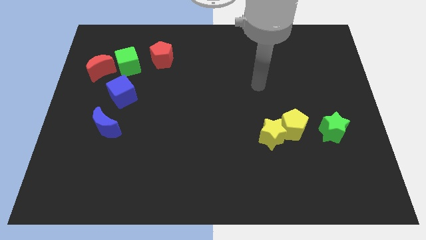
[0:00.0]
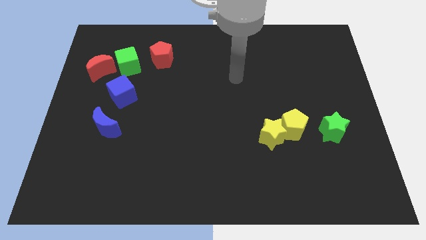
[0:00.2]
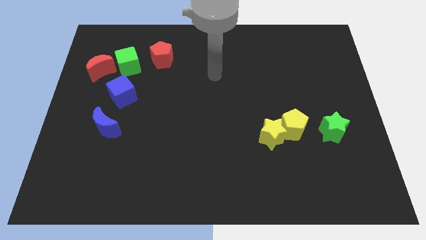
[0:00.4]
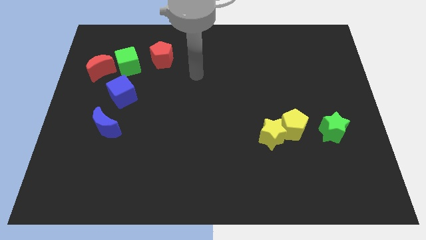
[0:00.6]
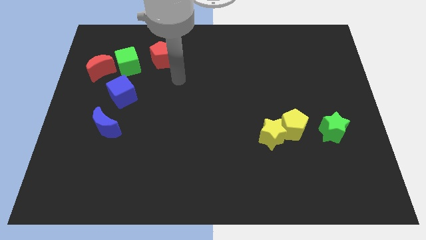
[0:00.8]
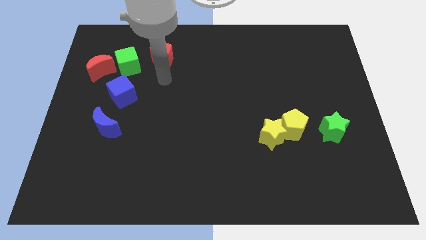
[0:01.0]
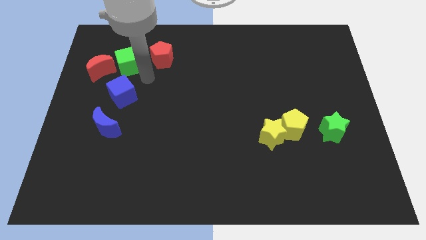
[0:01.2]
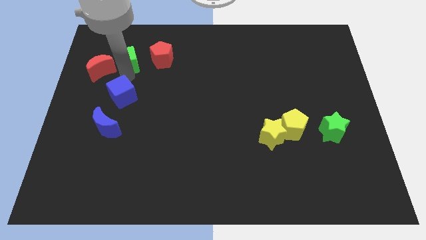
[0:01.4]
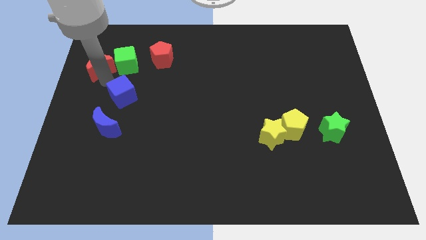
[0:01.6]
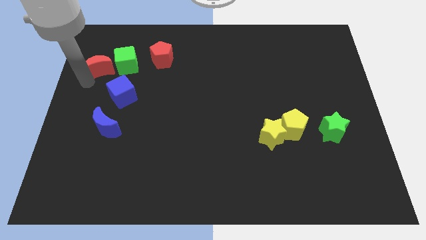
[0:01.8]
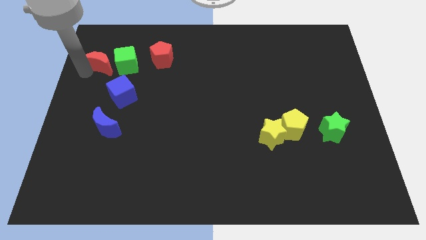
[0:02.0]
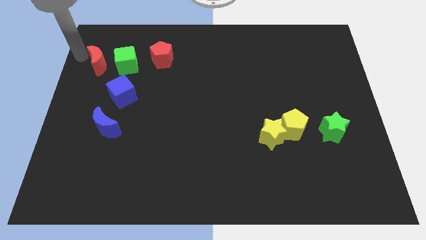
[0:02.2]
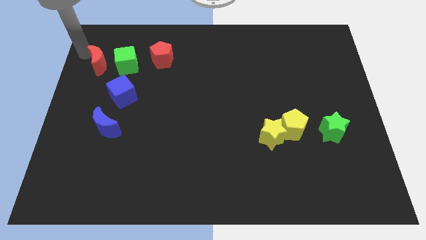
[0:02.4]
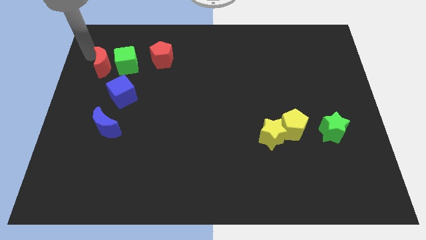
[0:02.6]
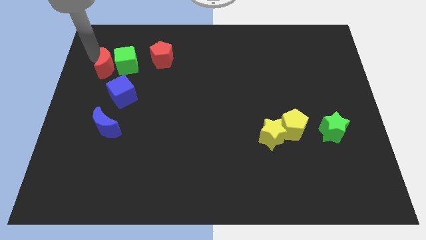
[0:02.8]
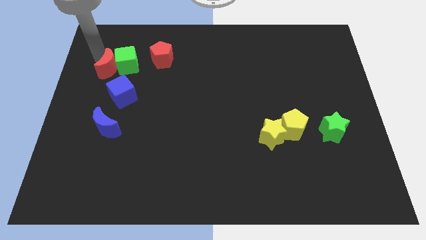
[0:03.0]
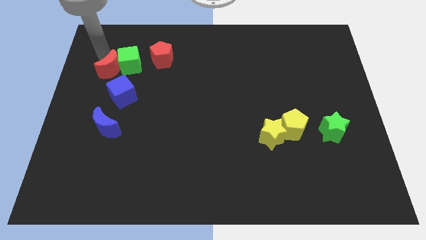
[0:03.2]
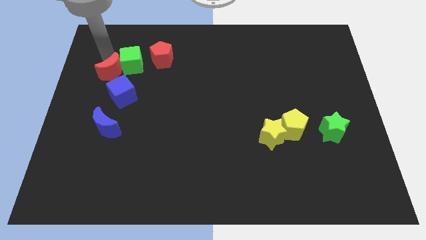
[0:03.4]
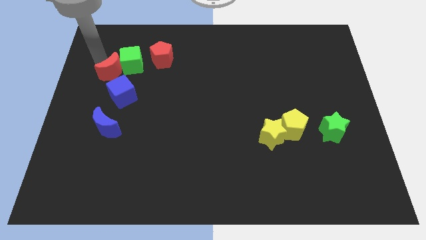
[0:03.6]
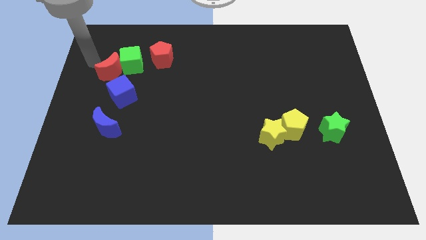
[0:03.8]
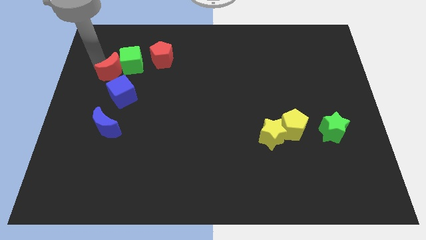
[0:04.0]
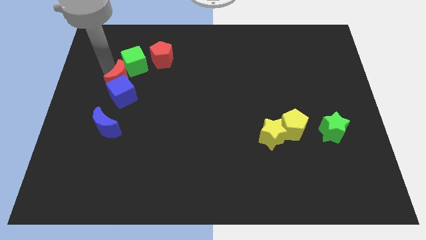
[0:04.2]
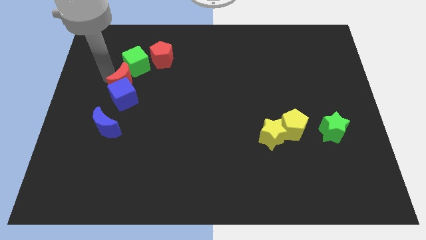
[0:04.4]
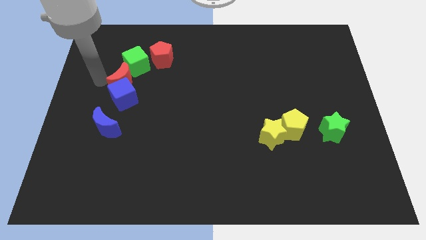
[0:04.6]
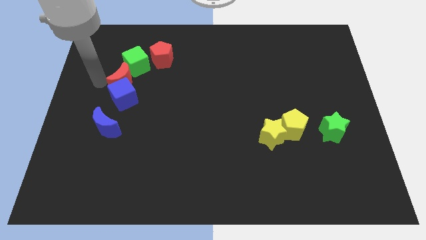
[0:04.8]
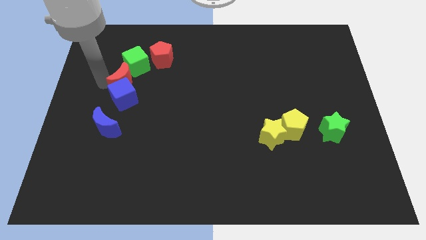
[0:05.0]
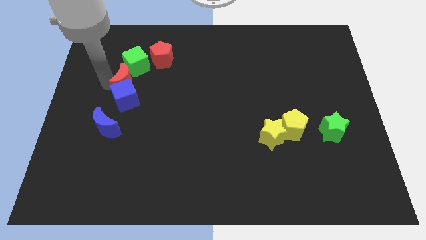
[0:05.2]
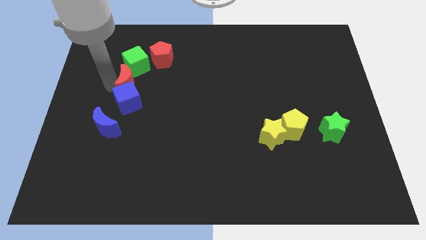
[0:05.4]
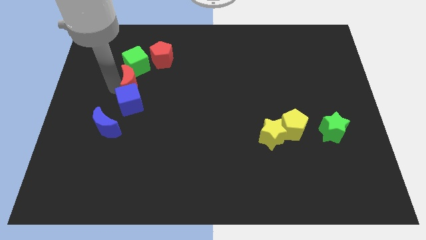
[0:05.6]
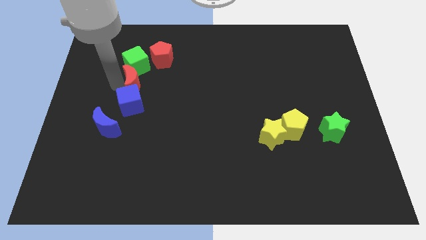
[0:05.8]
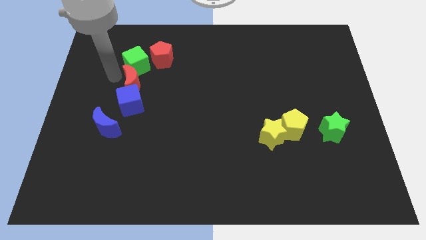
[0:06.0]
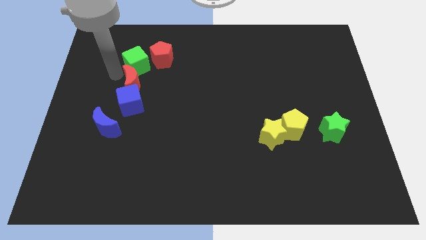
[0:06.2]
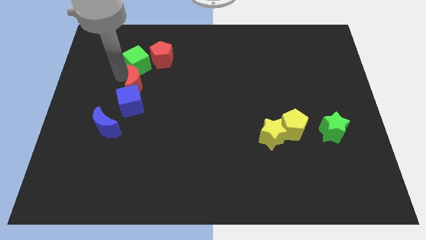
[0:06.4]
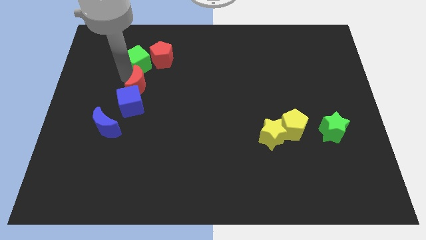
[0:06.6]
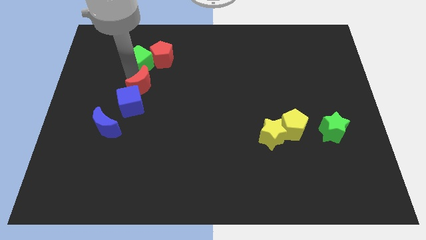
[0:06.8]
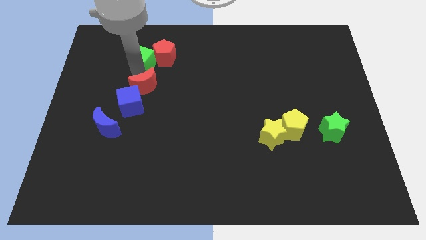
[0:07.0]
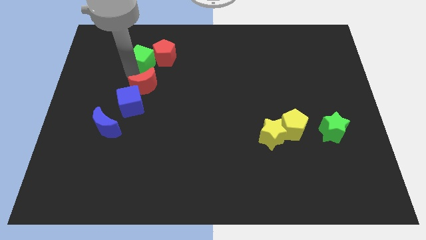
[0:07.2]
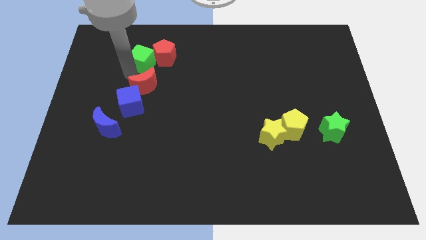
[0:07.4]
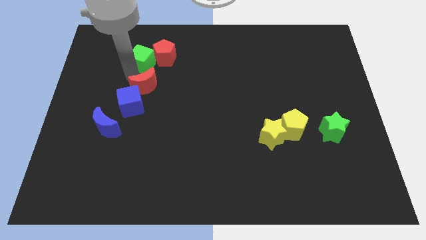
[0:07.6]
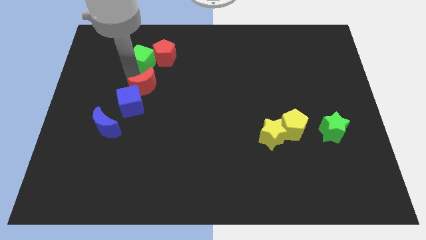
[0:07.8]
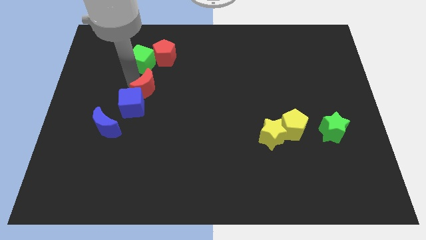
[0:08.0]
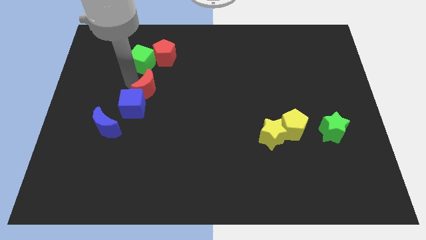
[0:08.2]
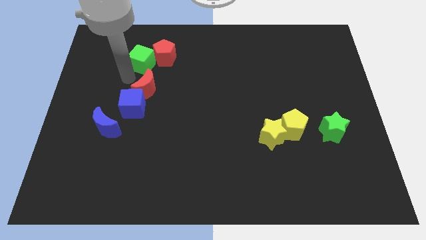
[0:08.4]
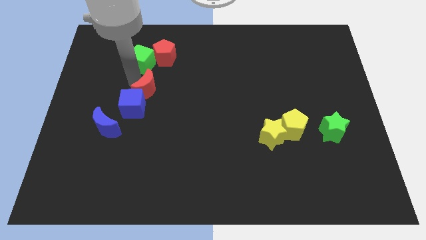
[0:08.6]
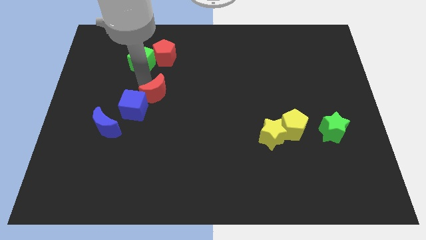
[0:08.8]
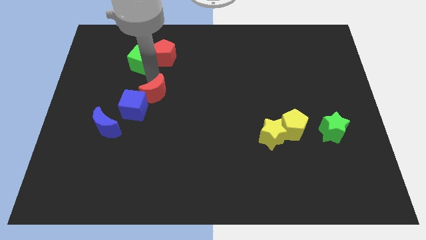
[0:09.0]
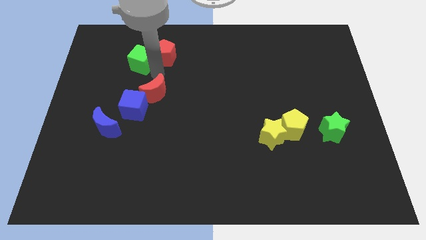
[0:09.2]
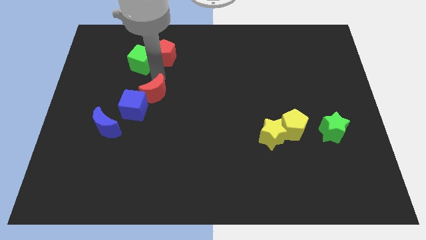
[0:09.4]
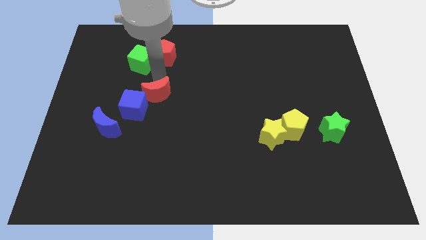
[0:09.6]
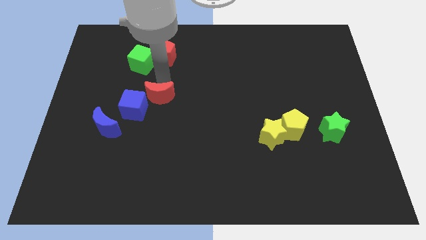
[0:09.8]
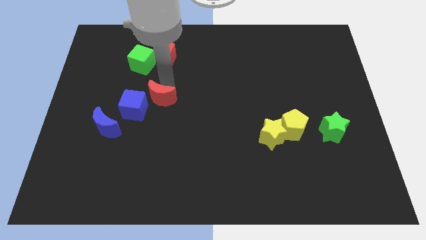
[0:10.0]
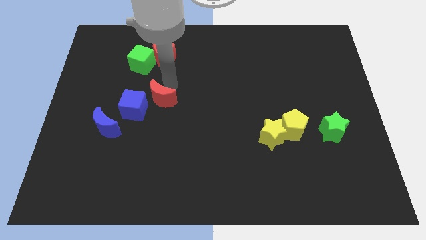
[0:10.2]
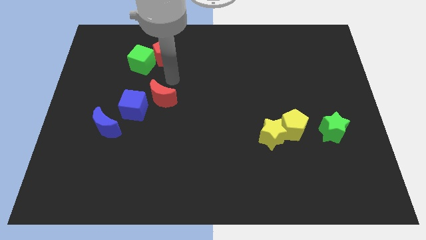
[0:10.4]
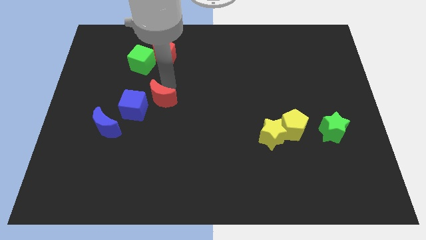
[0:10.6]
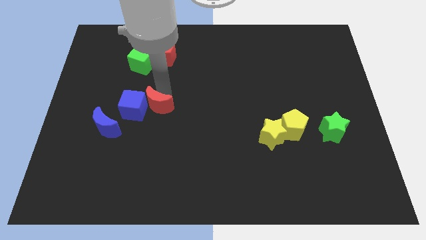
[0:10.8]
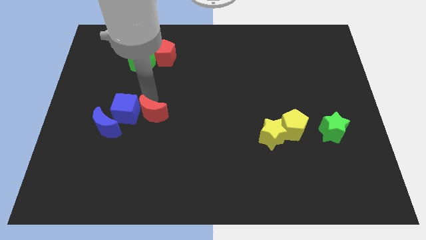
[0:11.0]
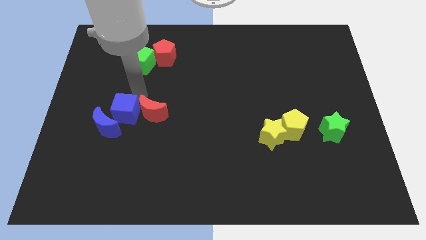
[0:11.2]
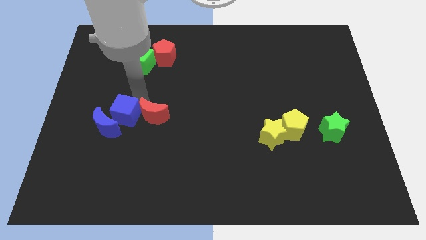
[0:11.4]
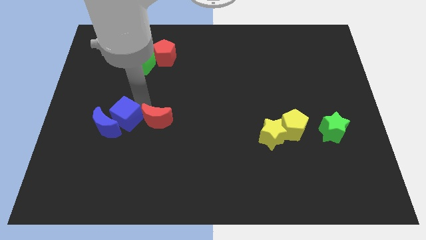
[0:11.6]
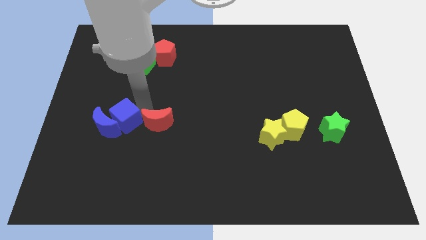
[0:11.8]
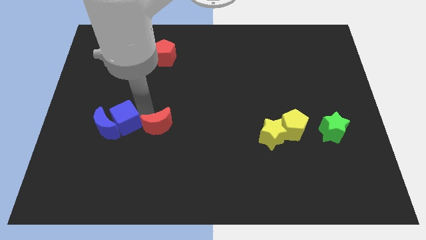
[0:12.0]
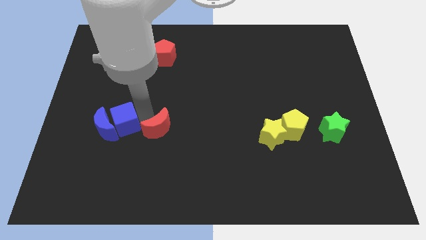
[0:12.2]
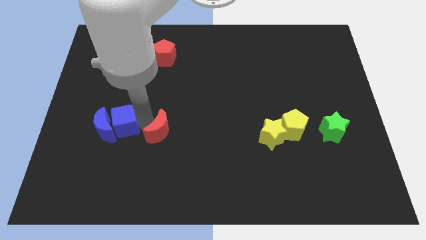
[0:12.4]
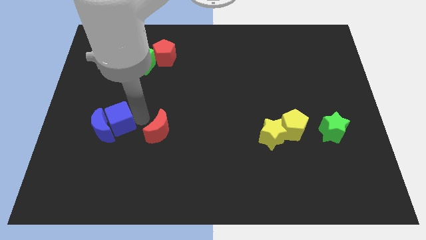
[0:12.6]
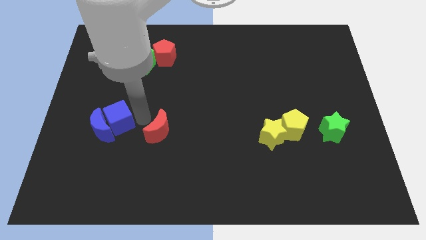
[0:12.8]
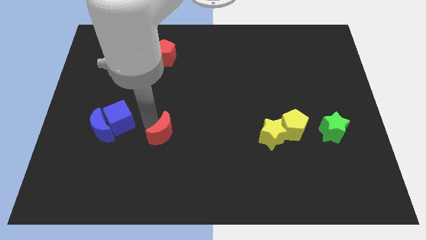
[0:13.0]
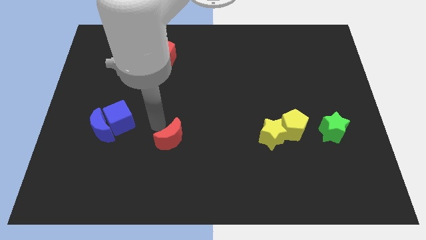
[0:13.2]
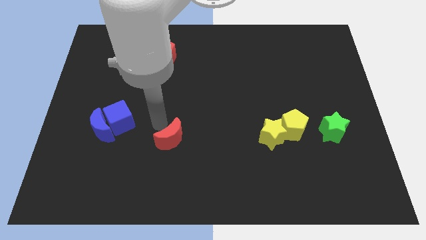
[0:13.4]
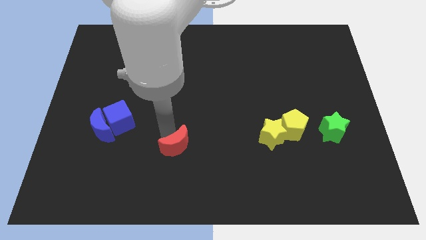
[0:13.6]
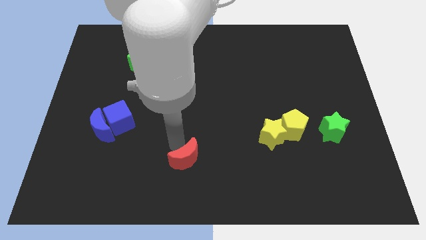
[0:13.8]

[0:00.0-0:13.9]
put the red moon to the bottom

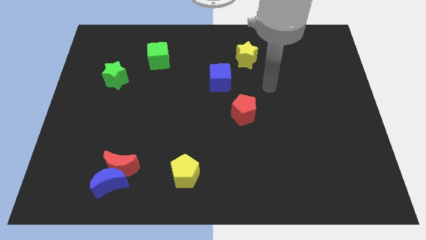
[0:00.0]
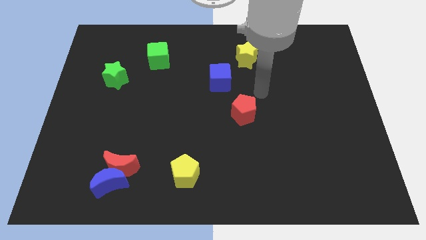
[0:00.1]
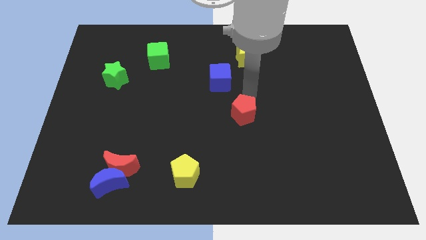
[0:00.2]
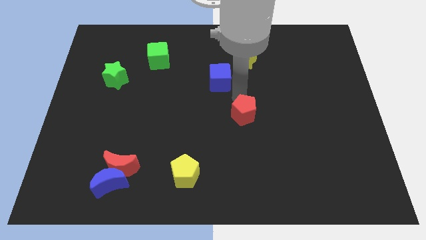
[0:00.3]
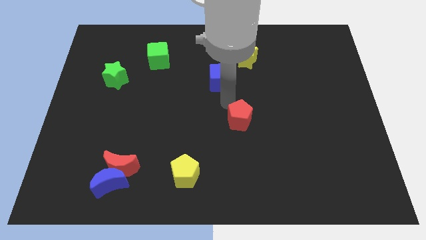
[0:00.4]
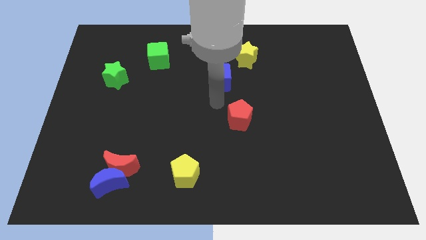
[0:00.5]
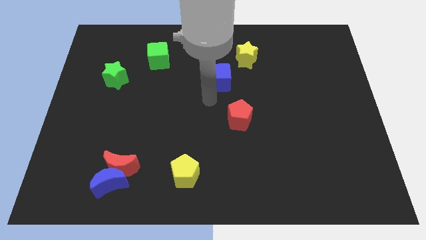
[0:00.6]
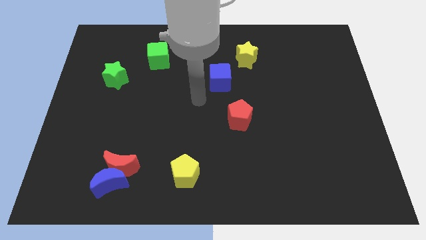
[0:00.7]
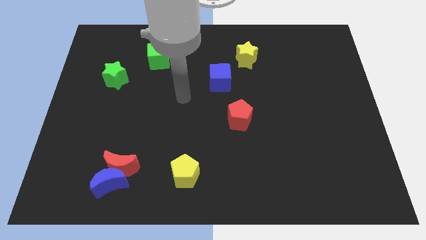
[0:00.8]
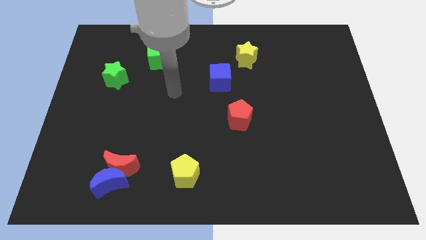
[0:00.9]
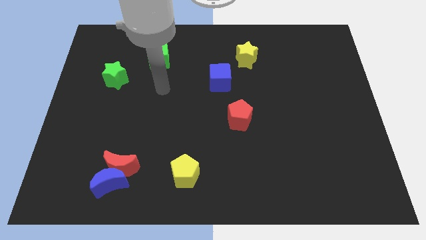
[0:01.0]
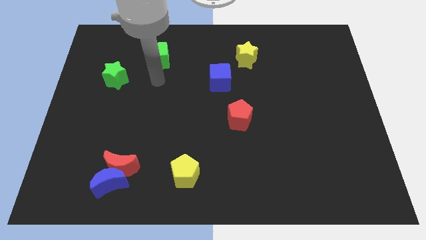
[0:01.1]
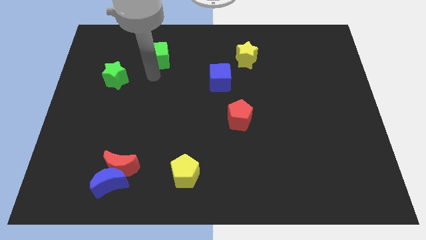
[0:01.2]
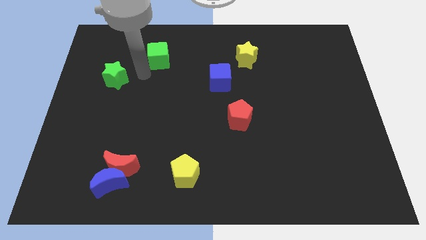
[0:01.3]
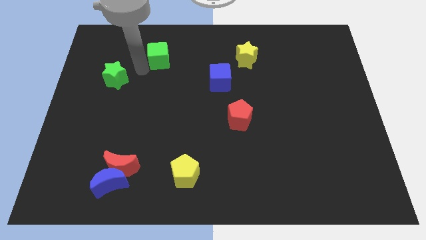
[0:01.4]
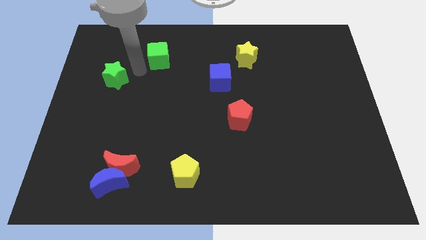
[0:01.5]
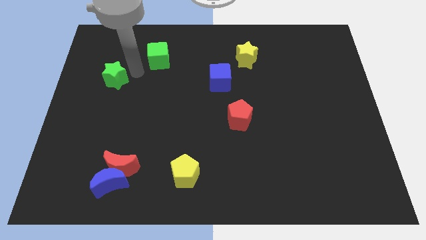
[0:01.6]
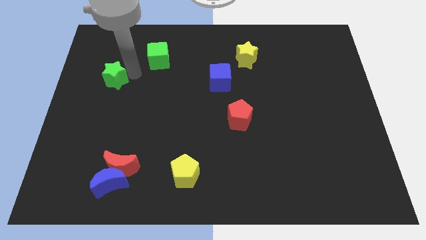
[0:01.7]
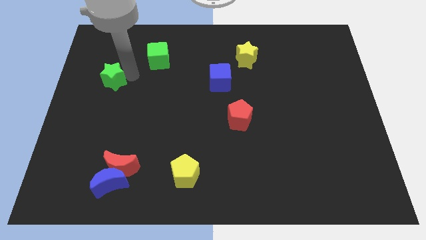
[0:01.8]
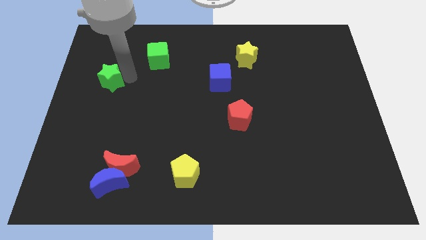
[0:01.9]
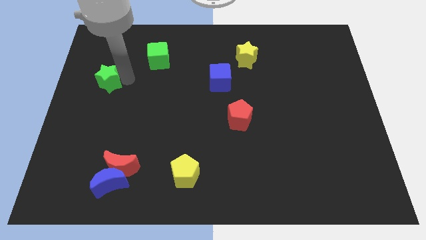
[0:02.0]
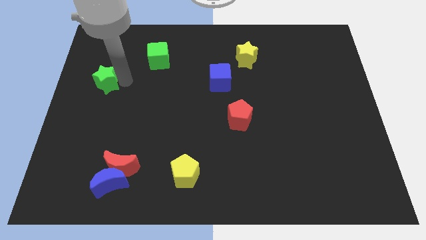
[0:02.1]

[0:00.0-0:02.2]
push the green star to the center left
